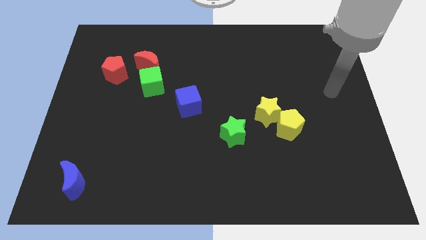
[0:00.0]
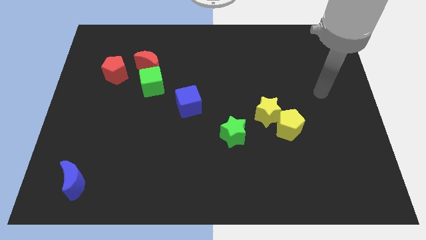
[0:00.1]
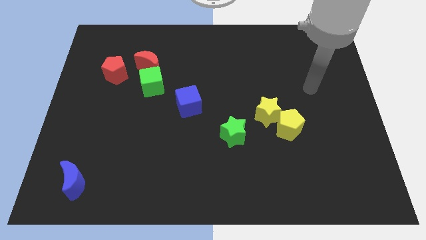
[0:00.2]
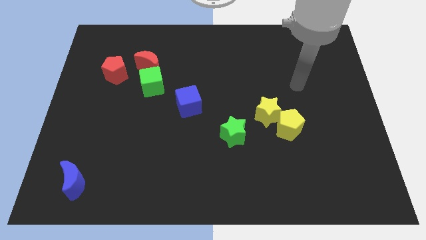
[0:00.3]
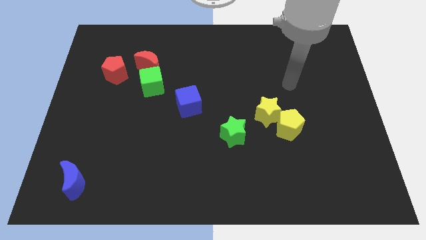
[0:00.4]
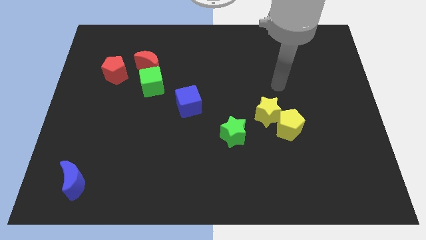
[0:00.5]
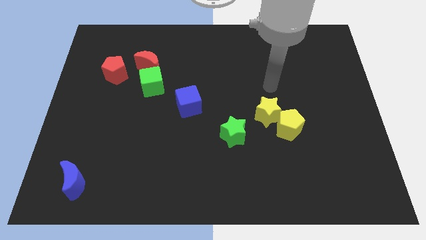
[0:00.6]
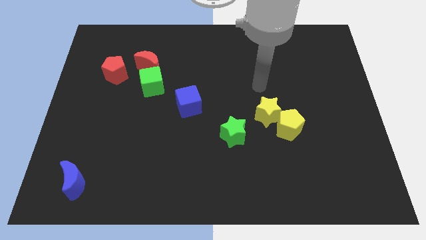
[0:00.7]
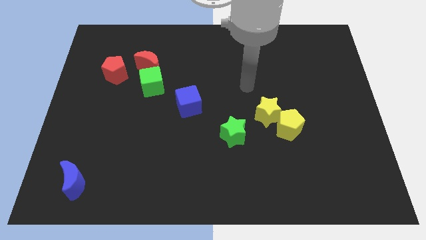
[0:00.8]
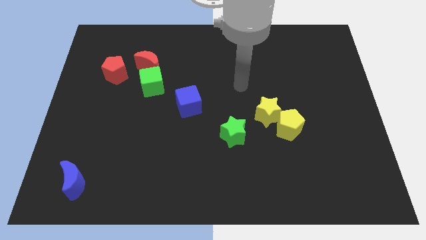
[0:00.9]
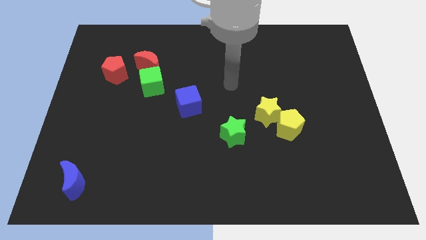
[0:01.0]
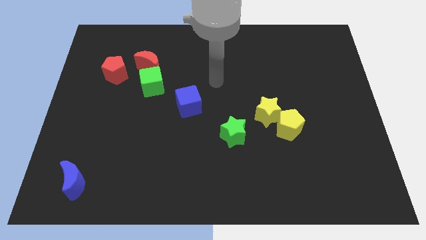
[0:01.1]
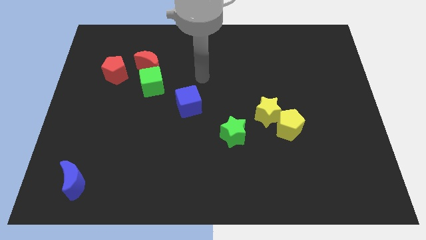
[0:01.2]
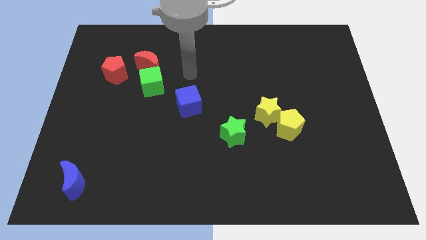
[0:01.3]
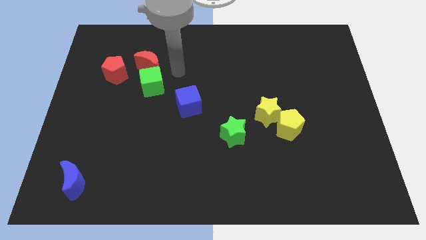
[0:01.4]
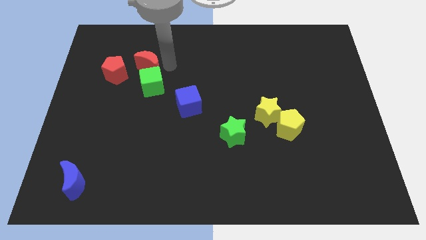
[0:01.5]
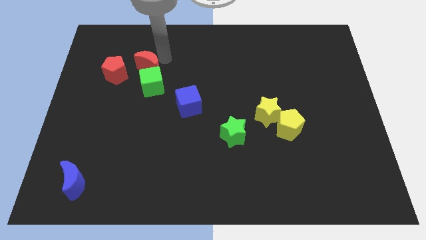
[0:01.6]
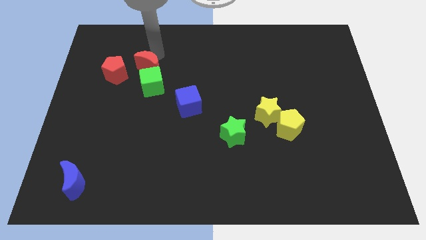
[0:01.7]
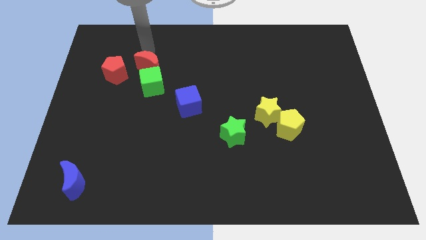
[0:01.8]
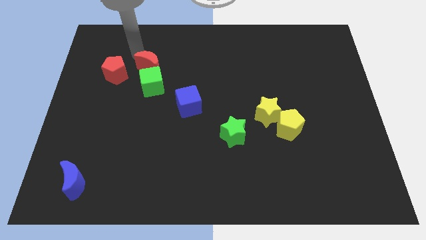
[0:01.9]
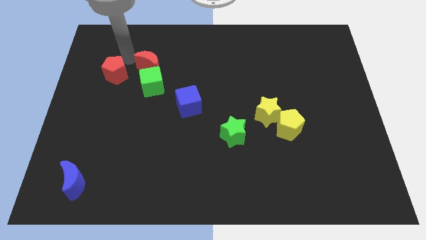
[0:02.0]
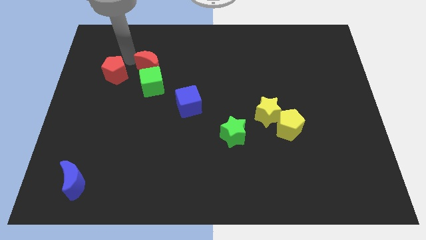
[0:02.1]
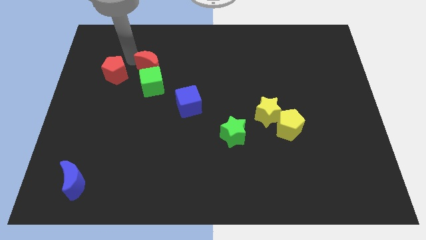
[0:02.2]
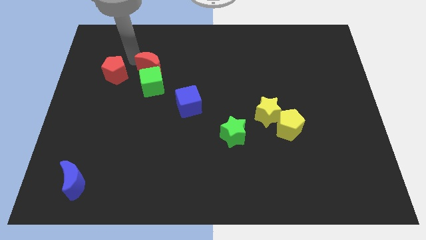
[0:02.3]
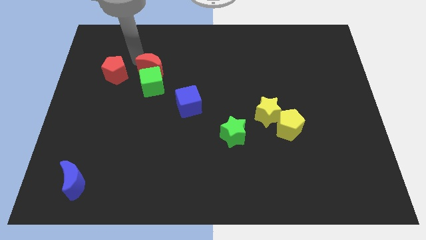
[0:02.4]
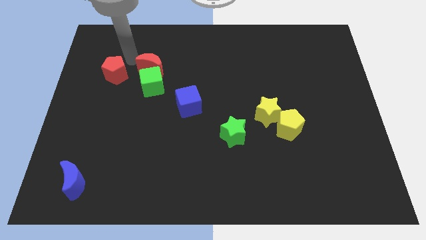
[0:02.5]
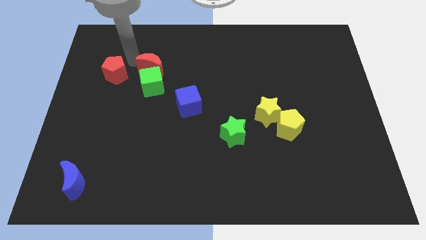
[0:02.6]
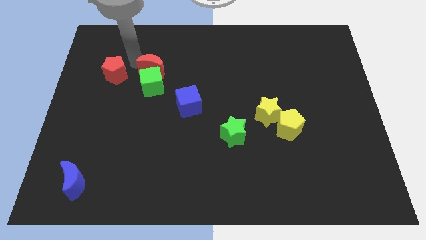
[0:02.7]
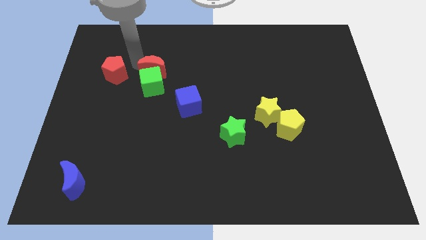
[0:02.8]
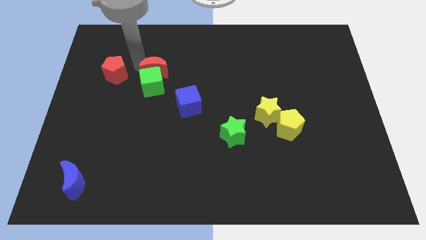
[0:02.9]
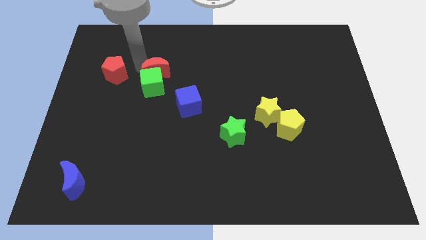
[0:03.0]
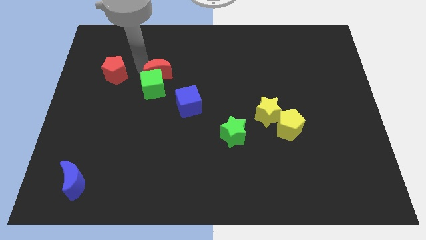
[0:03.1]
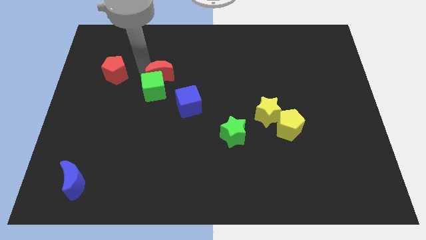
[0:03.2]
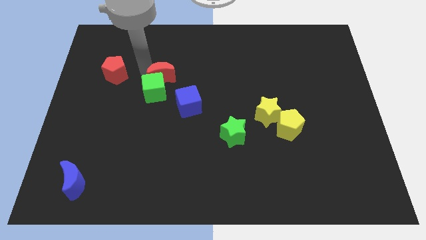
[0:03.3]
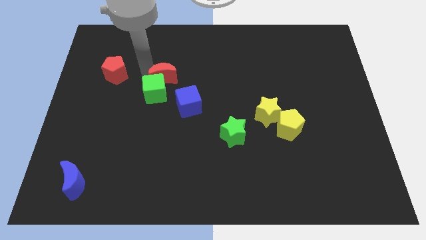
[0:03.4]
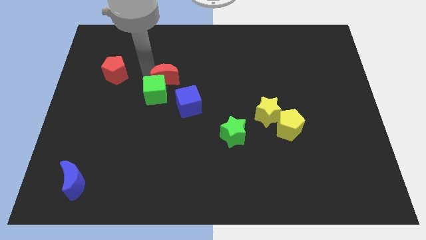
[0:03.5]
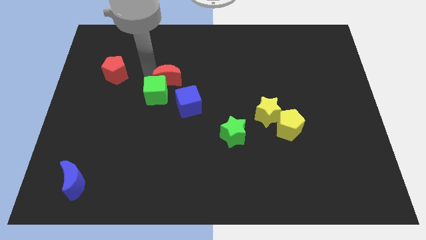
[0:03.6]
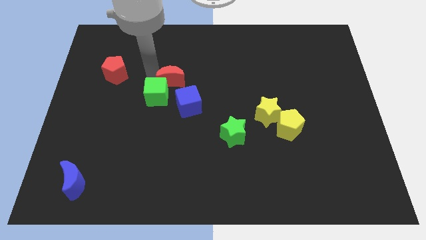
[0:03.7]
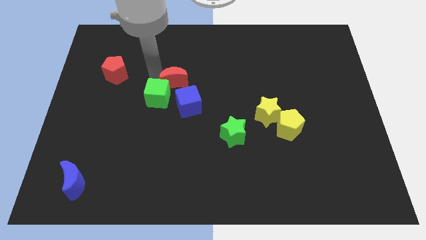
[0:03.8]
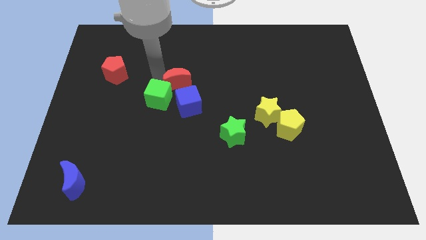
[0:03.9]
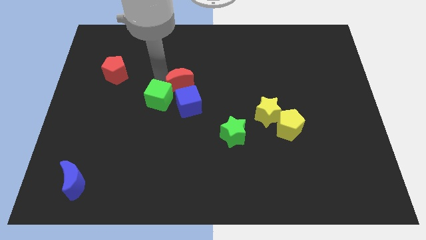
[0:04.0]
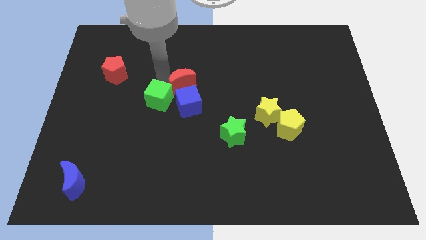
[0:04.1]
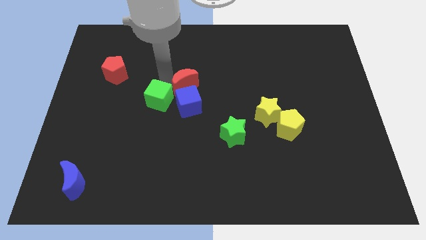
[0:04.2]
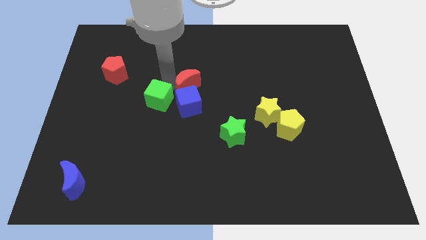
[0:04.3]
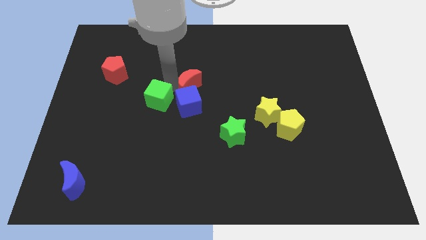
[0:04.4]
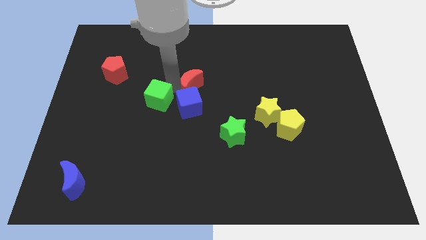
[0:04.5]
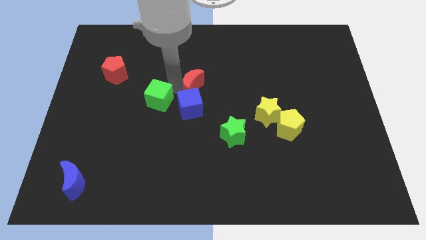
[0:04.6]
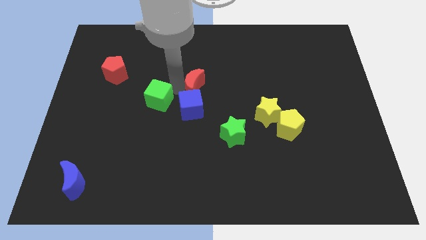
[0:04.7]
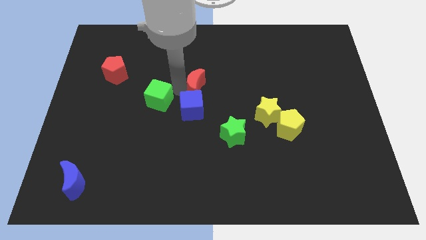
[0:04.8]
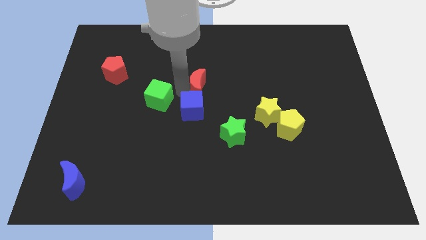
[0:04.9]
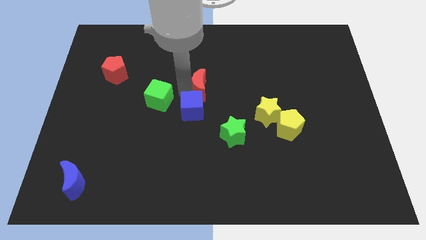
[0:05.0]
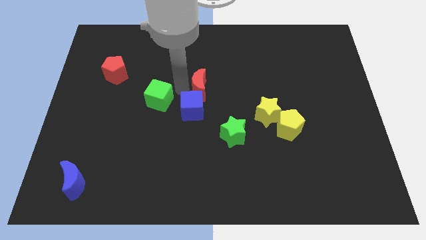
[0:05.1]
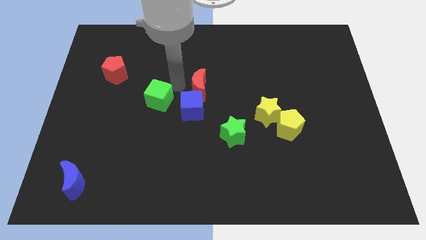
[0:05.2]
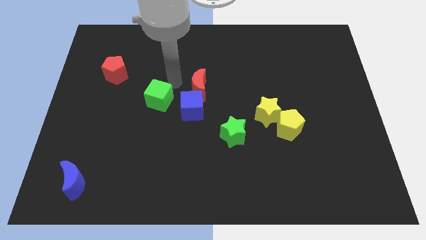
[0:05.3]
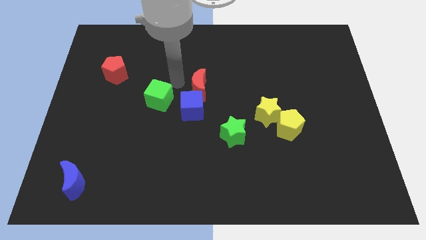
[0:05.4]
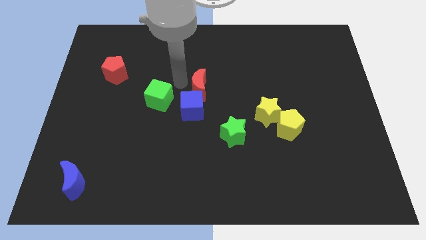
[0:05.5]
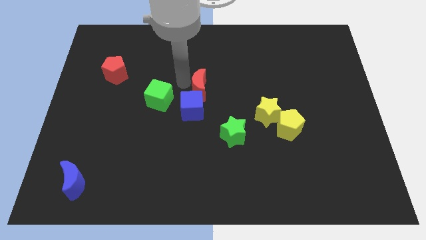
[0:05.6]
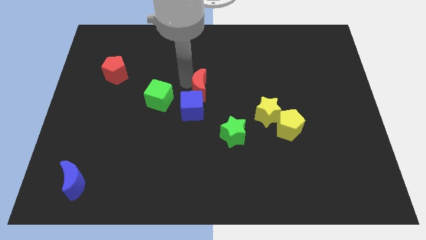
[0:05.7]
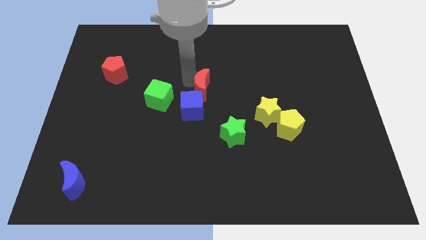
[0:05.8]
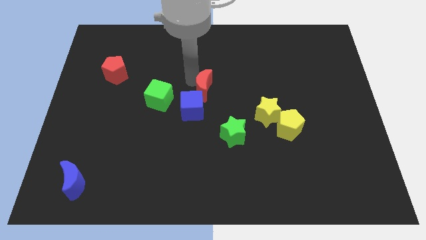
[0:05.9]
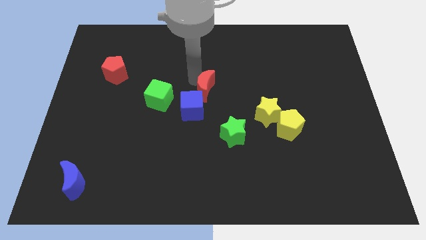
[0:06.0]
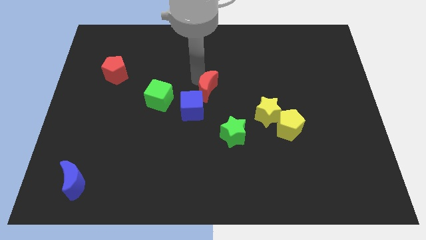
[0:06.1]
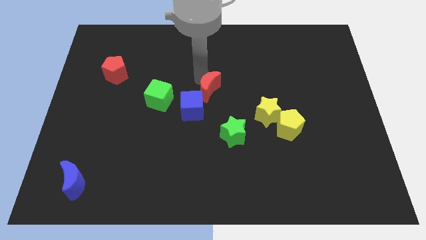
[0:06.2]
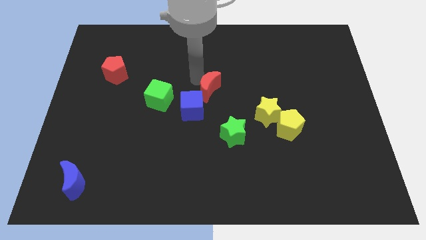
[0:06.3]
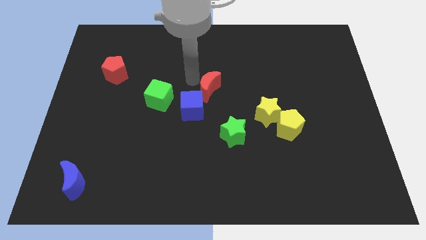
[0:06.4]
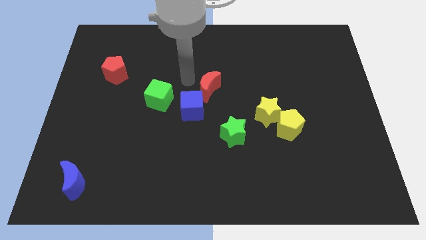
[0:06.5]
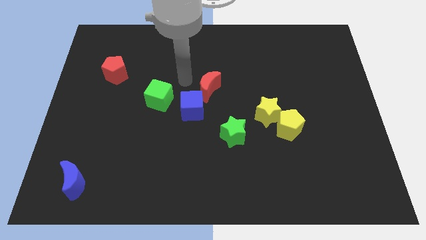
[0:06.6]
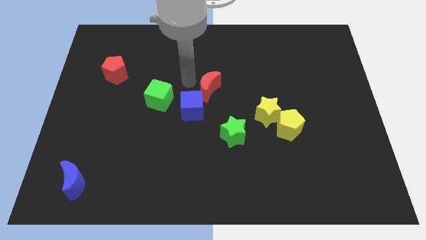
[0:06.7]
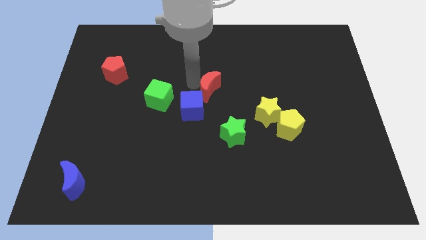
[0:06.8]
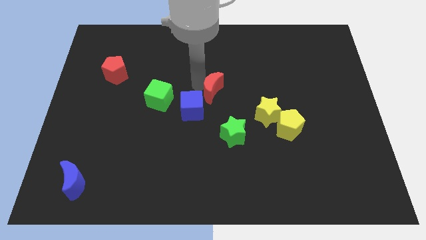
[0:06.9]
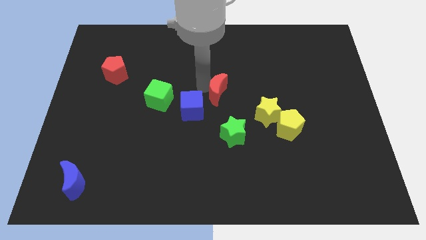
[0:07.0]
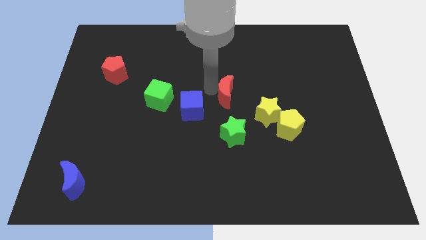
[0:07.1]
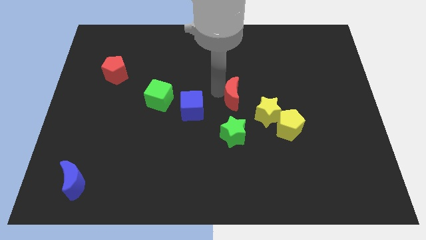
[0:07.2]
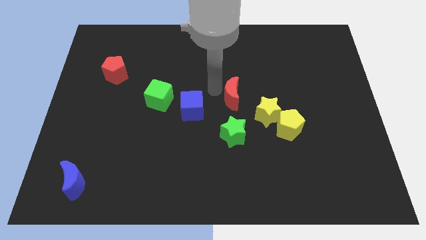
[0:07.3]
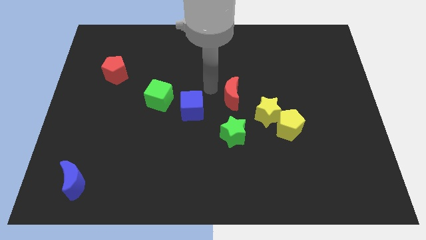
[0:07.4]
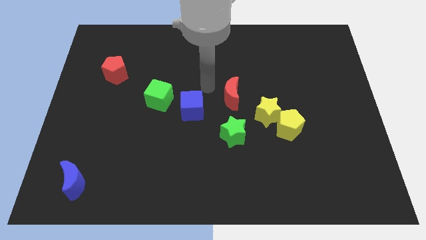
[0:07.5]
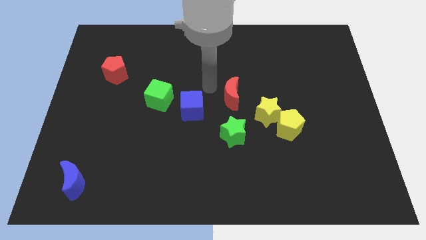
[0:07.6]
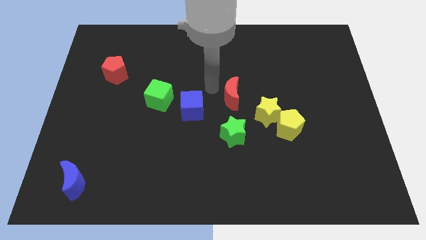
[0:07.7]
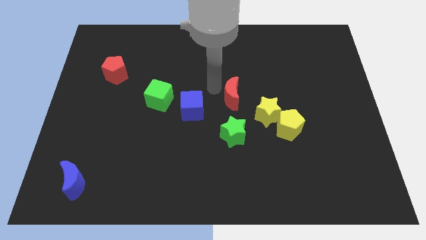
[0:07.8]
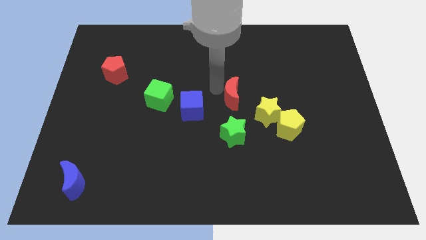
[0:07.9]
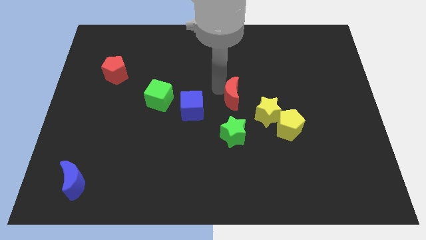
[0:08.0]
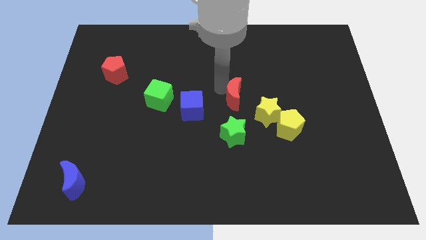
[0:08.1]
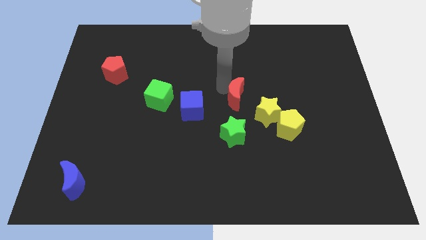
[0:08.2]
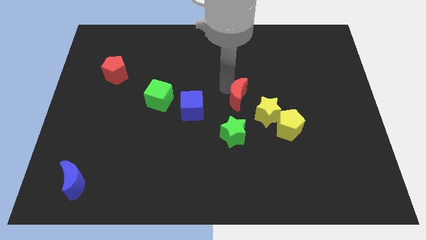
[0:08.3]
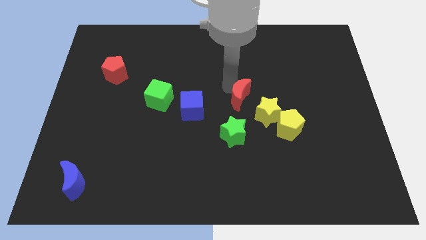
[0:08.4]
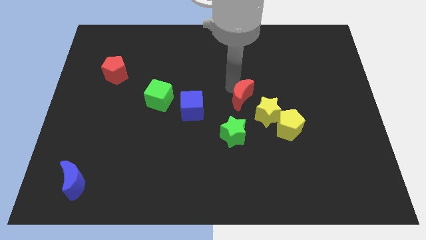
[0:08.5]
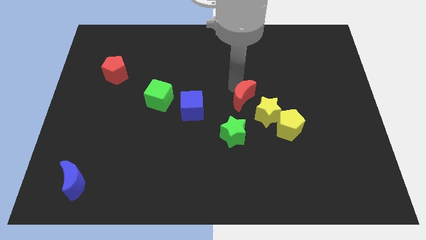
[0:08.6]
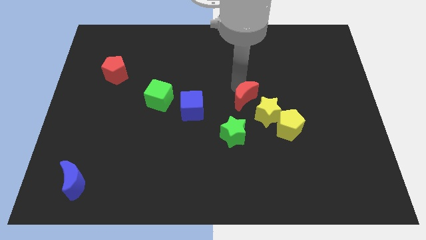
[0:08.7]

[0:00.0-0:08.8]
push the red moon to the top left side of the yellow pentagon
